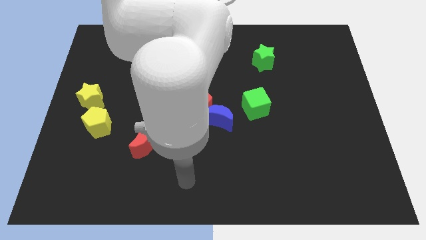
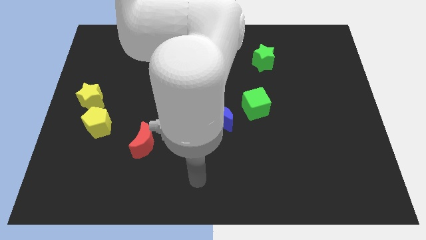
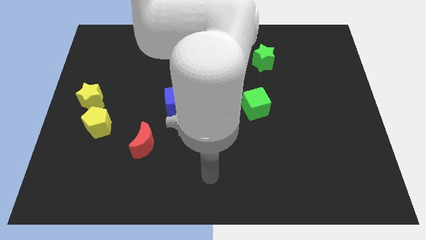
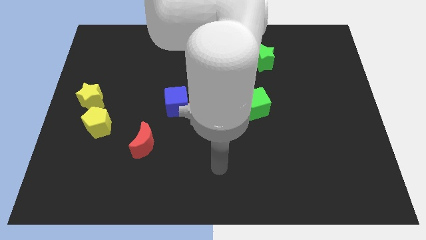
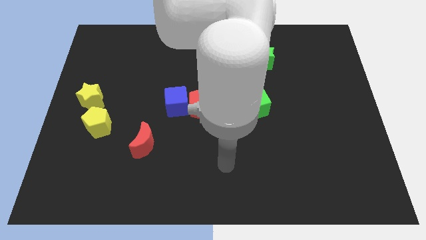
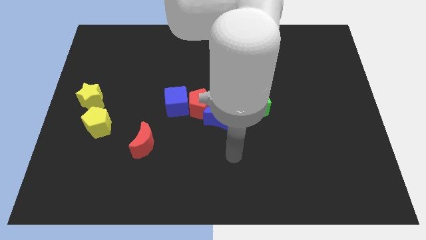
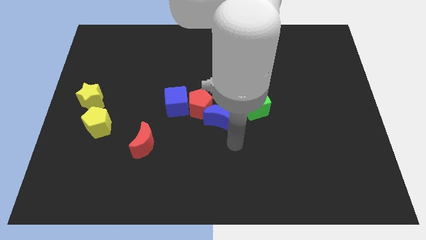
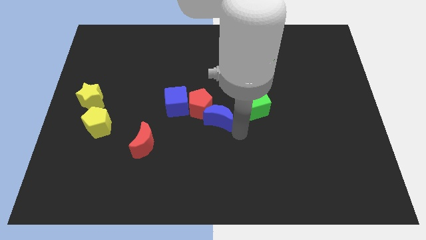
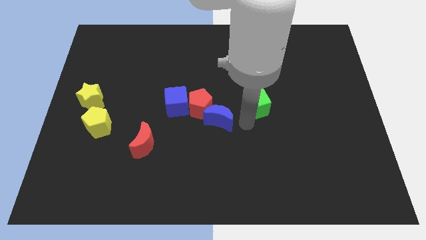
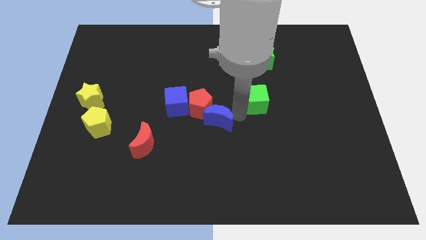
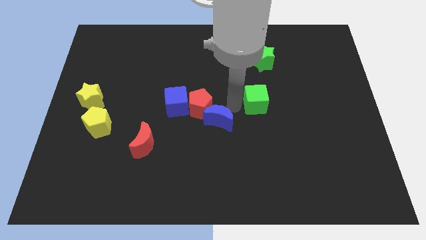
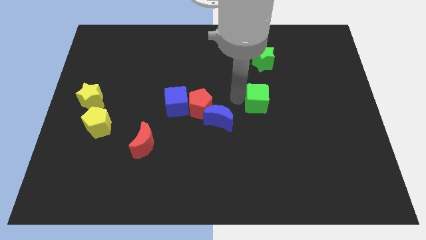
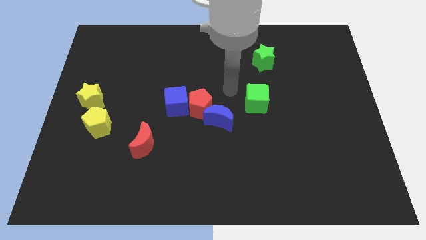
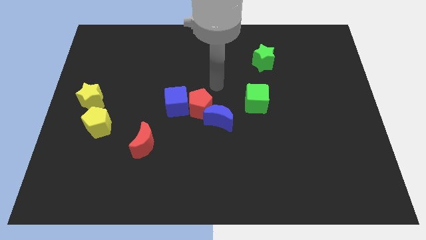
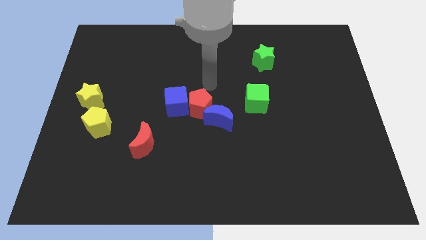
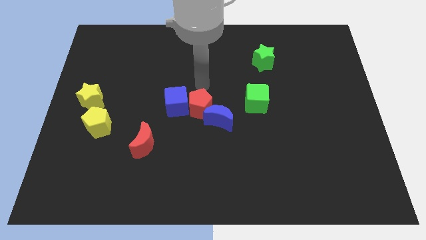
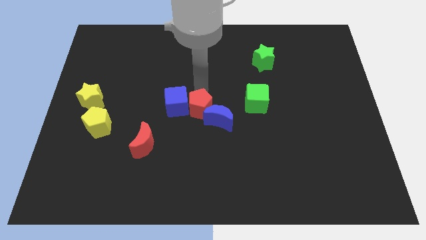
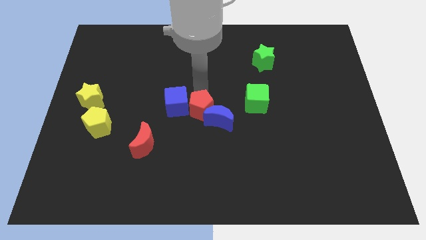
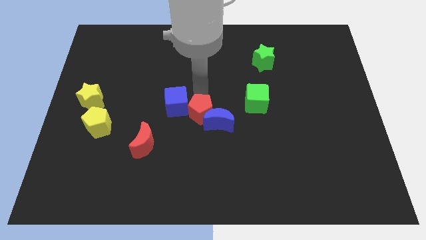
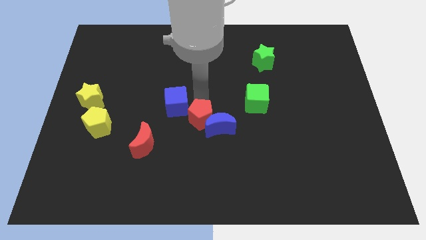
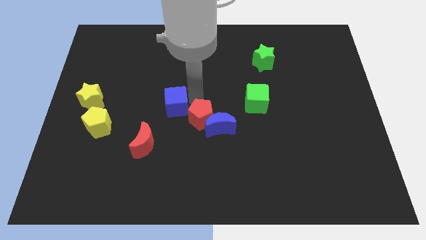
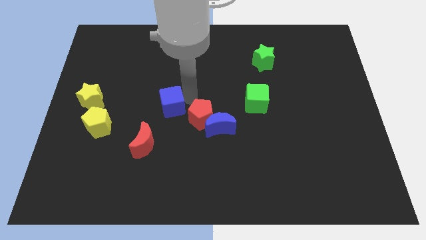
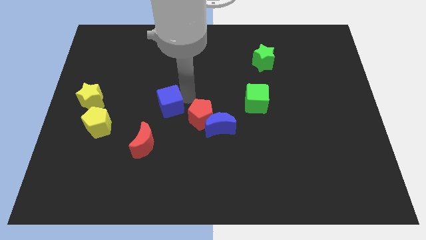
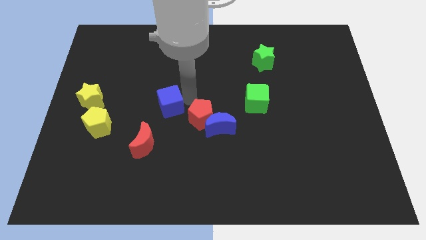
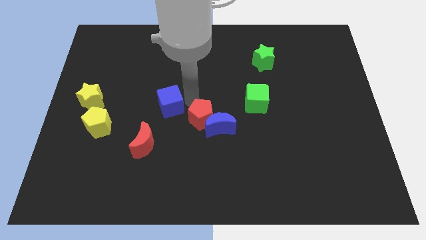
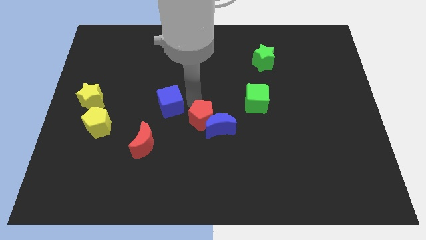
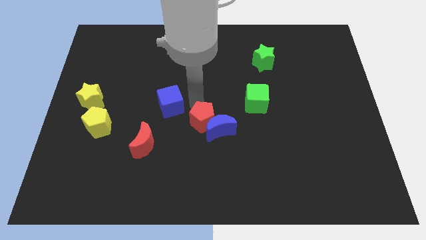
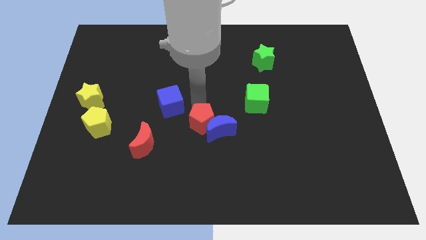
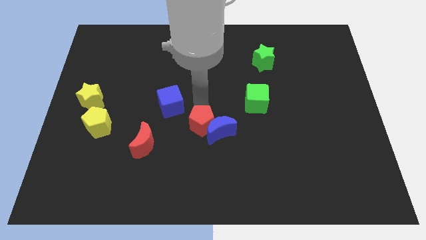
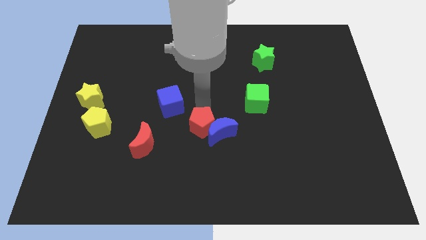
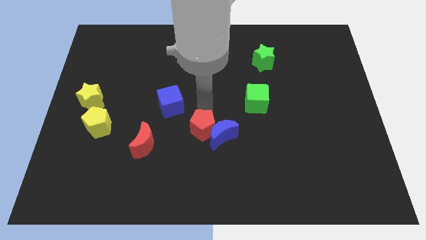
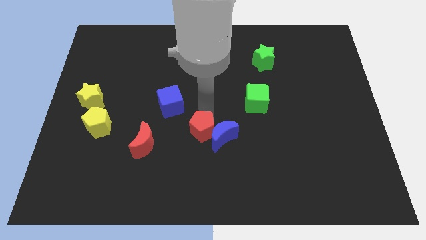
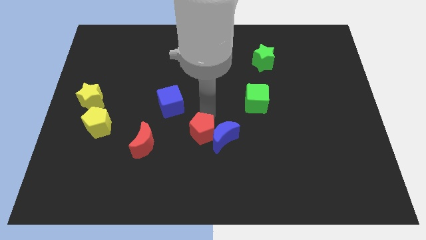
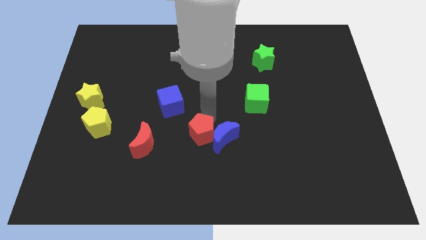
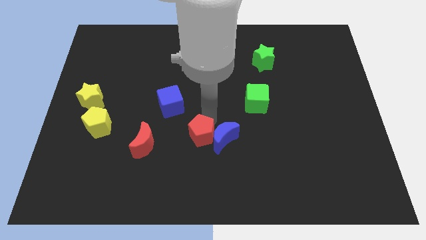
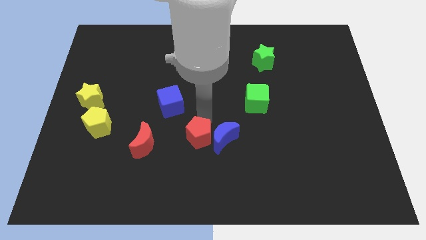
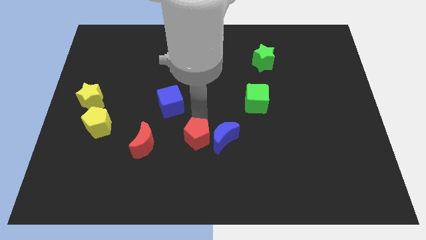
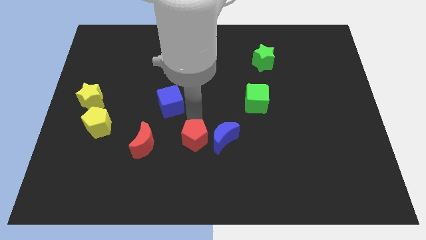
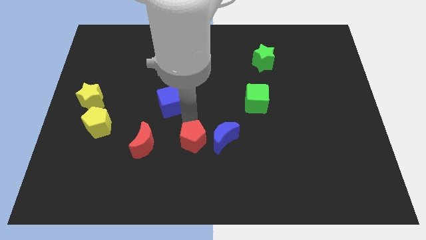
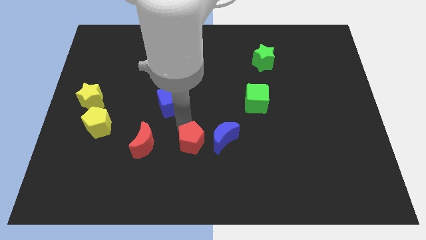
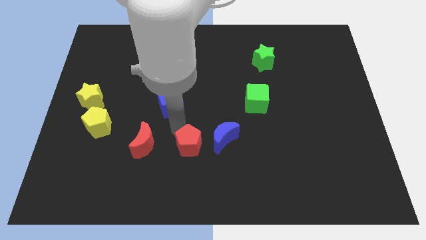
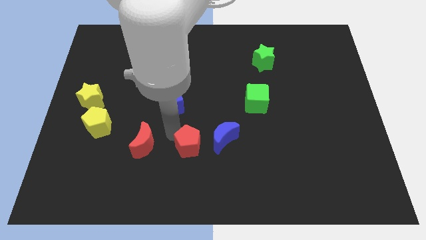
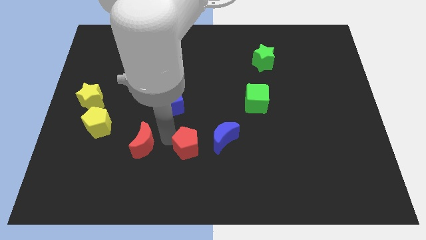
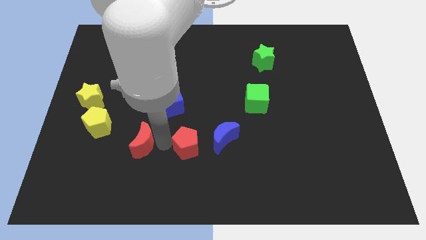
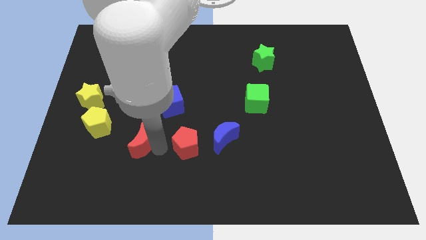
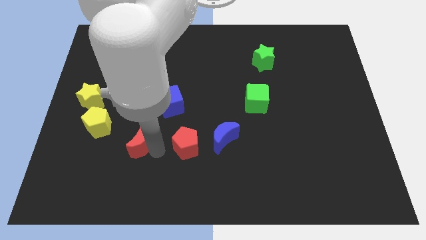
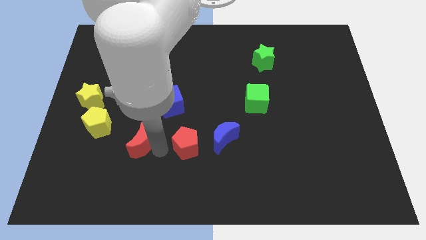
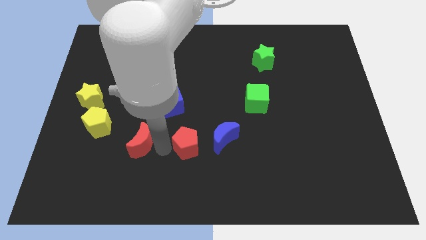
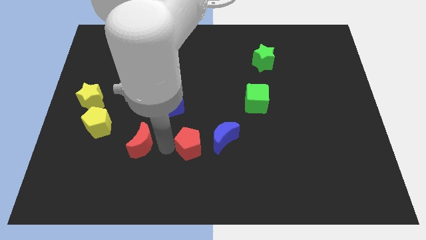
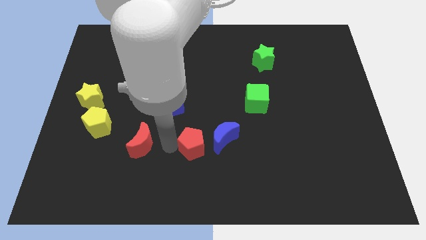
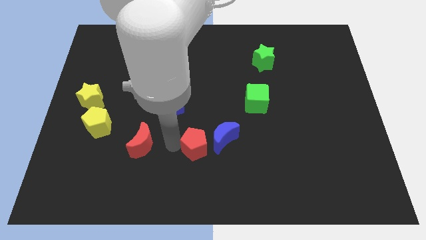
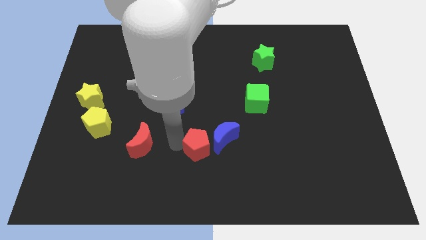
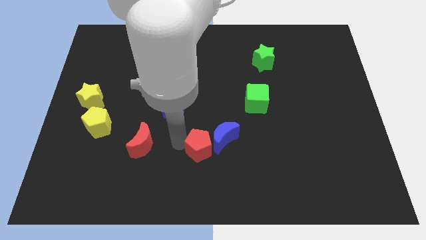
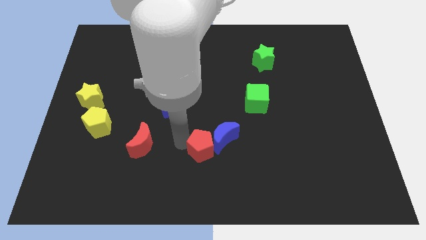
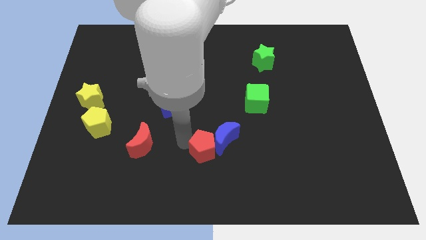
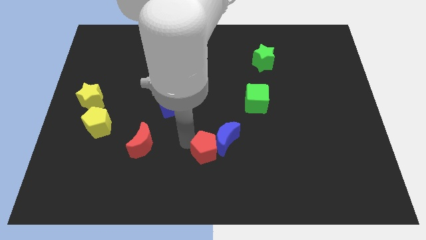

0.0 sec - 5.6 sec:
slide the red pentagon down and then to the right a bit

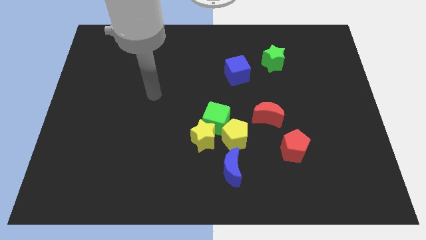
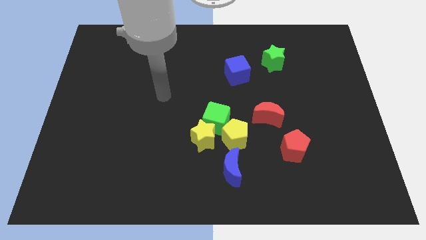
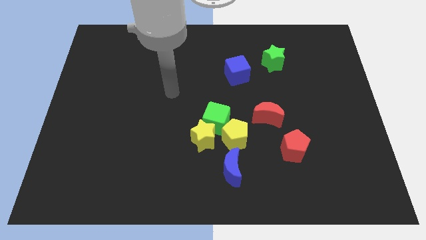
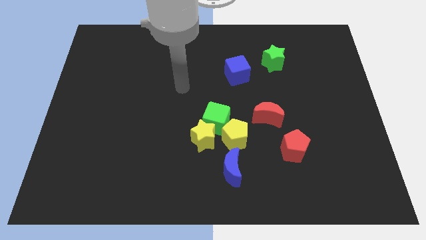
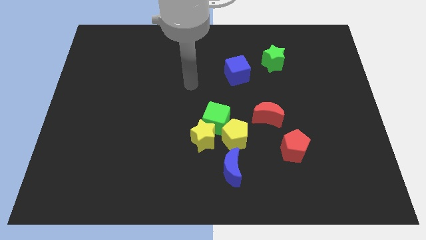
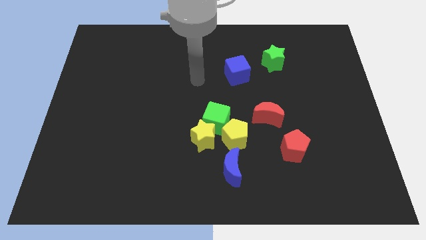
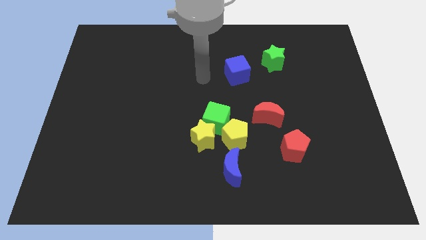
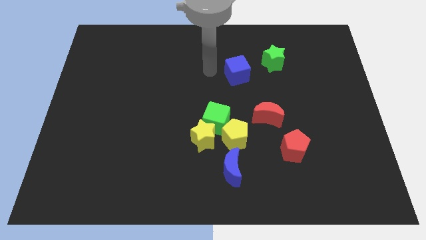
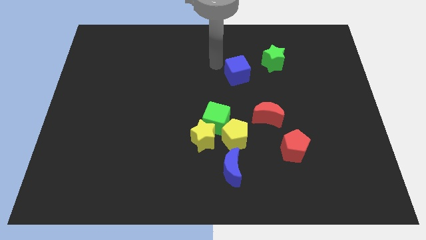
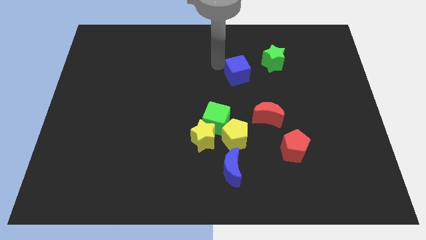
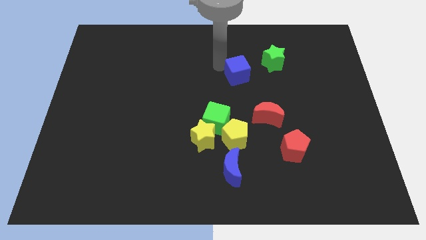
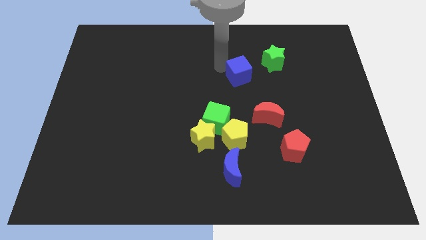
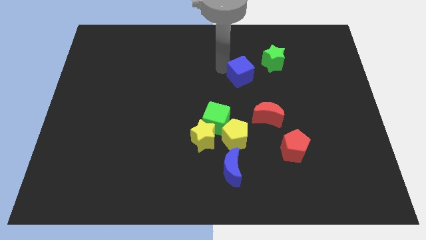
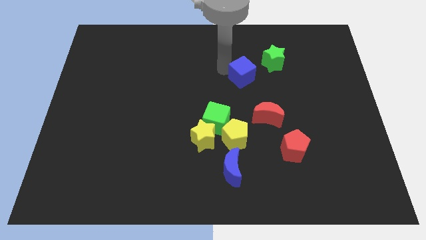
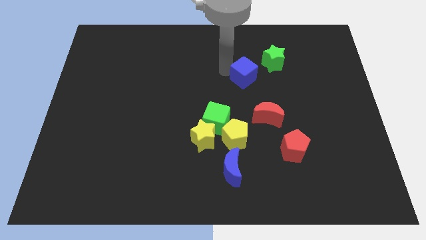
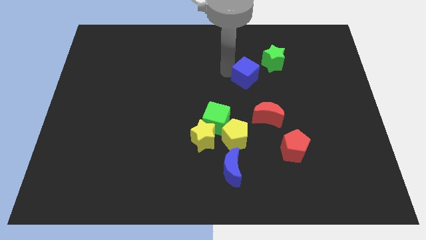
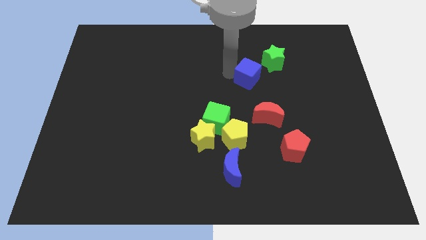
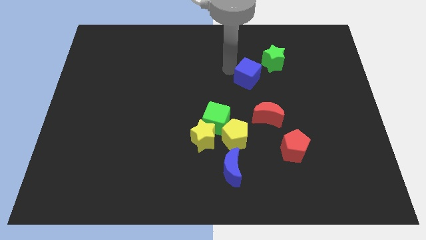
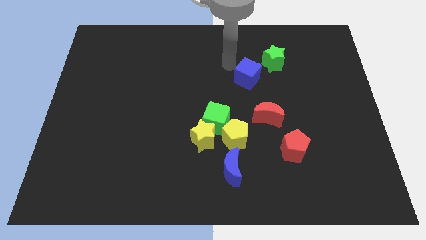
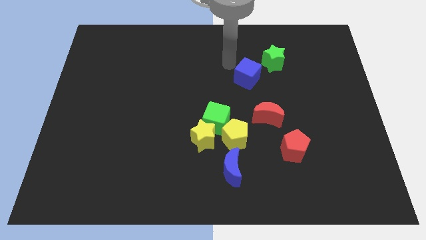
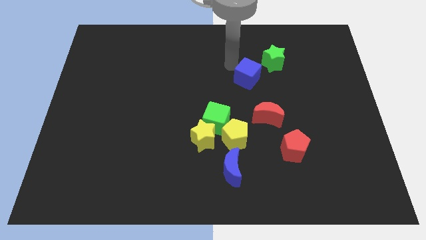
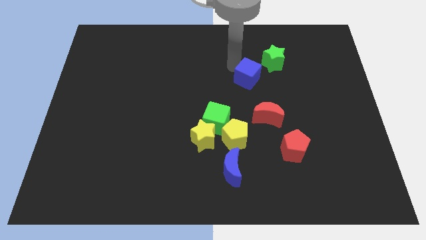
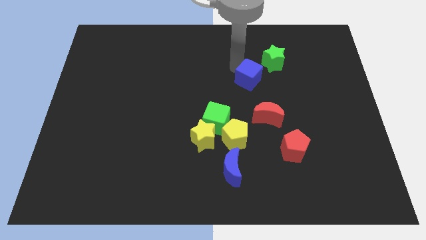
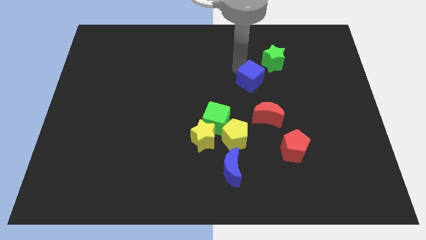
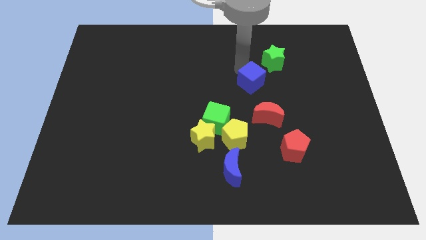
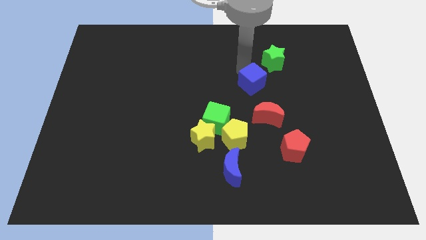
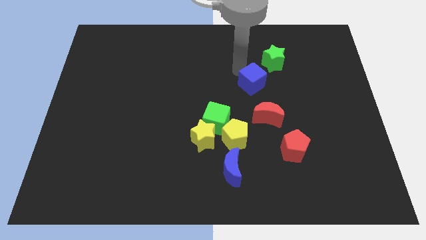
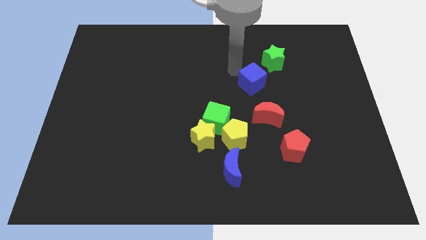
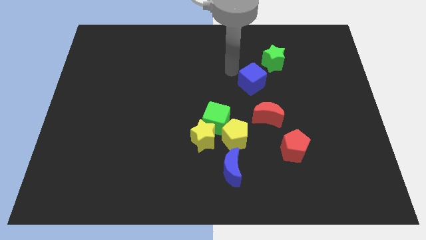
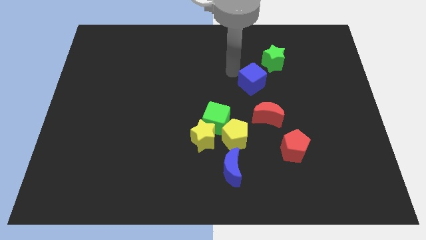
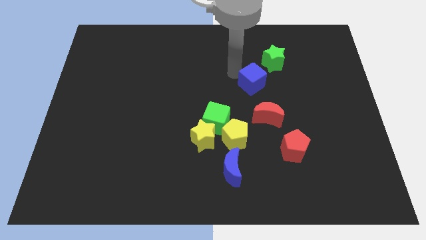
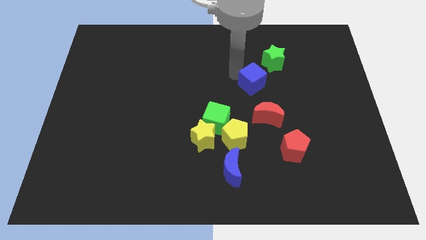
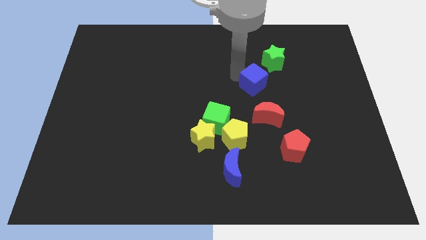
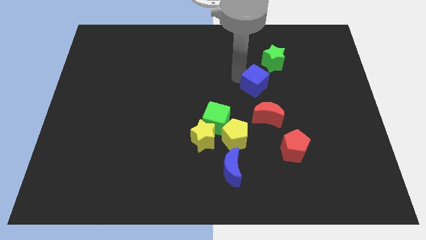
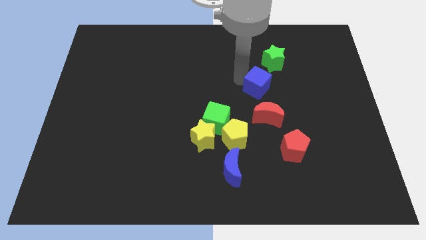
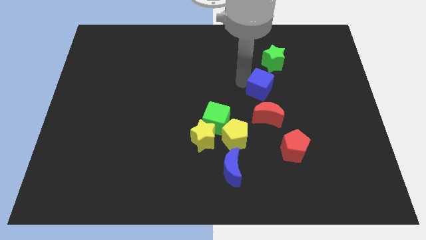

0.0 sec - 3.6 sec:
slide the blue cube down and then right a bit
